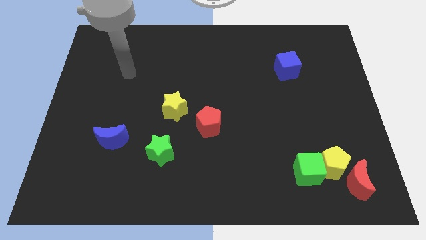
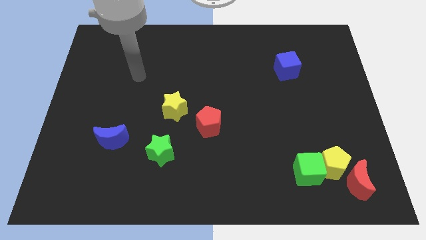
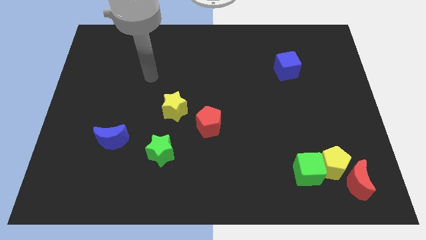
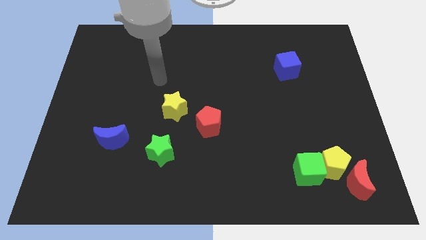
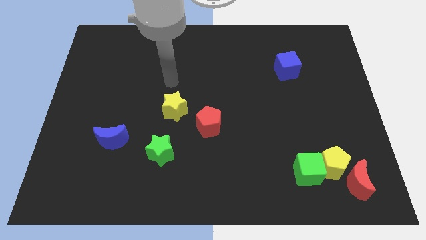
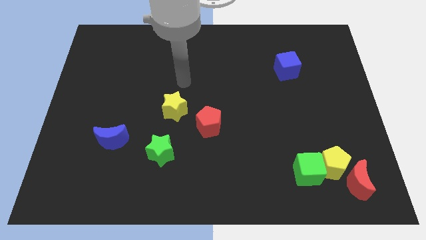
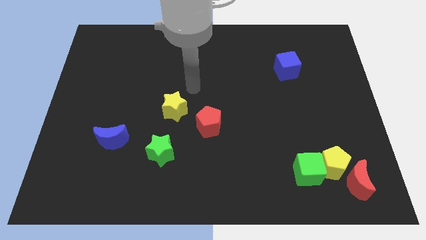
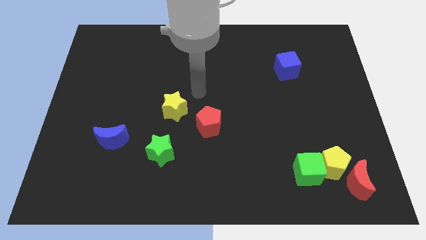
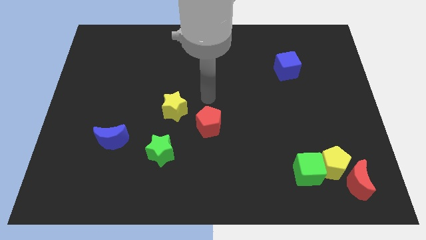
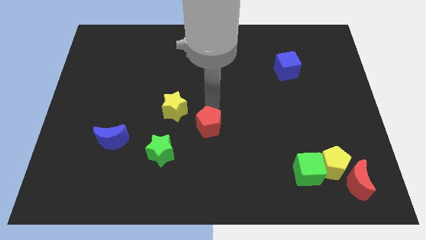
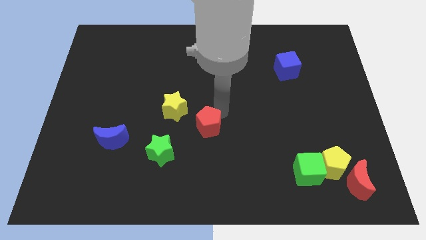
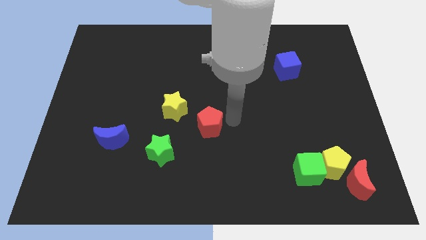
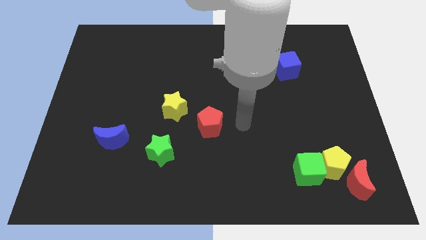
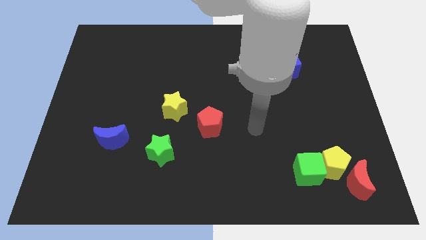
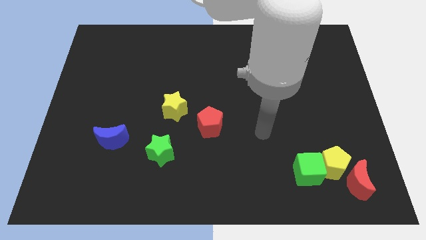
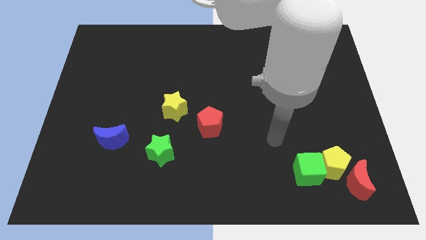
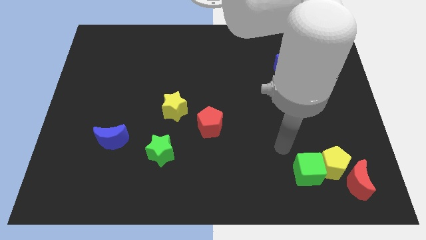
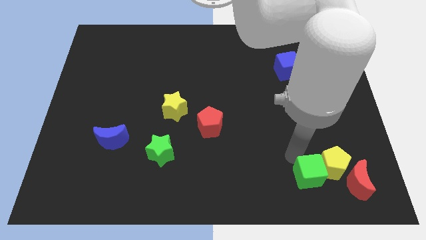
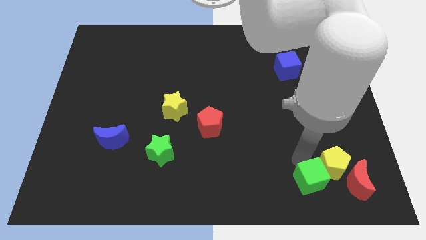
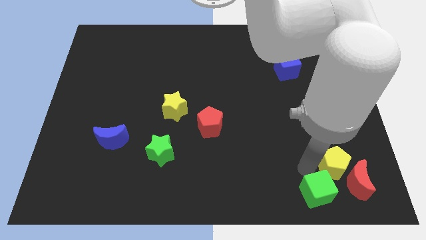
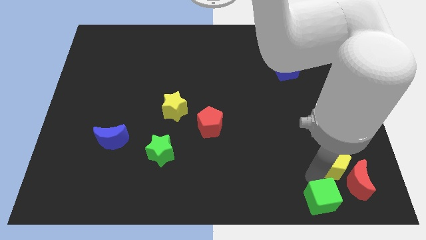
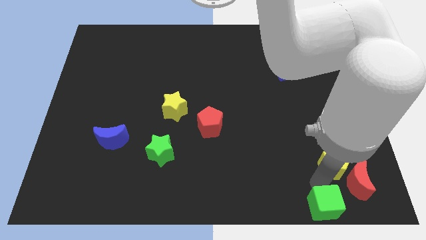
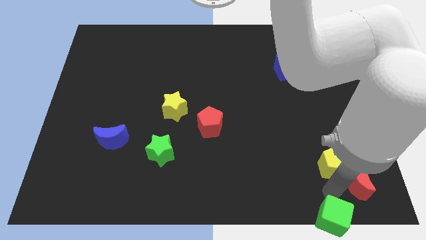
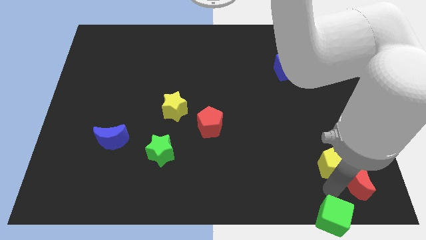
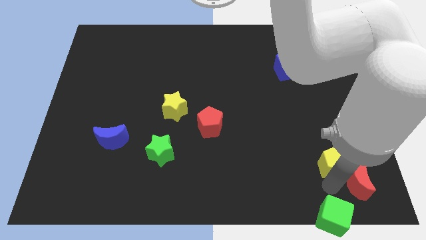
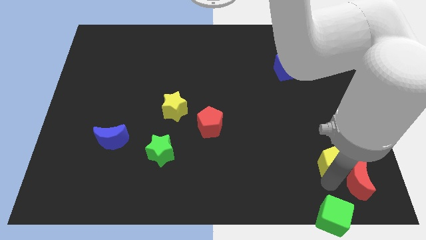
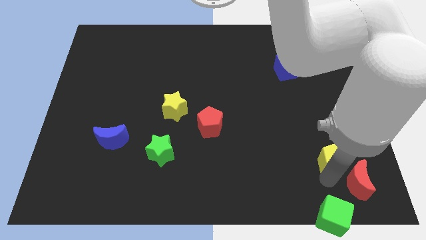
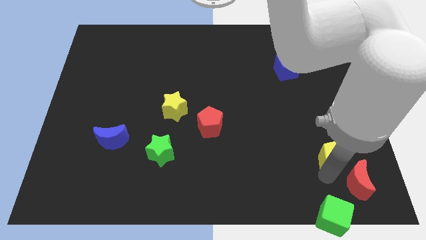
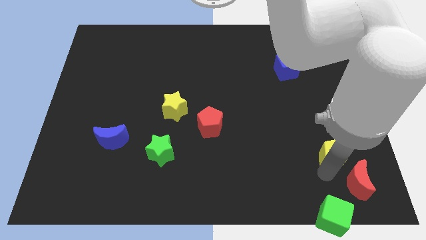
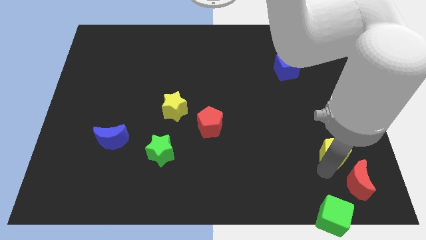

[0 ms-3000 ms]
move the yellow pentagon away from the green cube and red moon

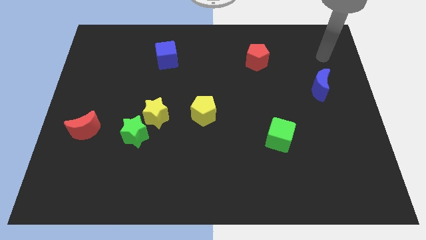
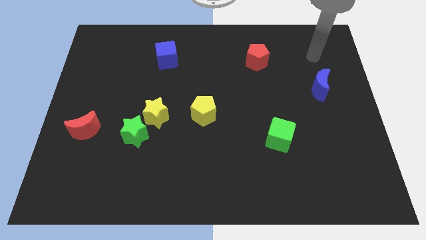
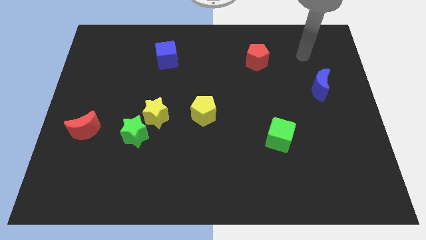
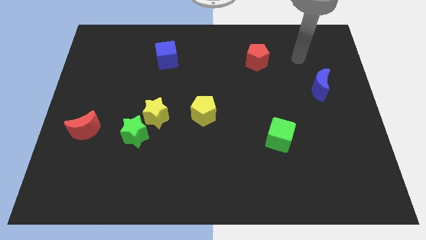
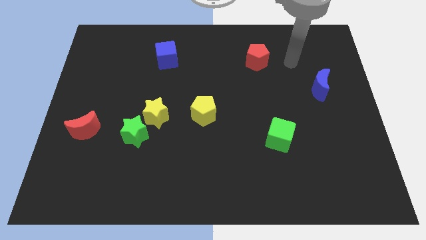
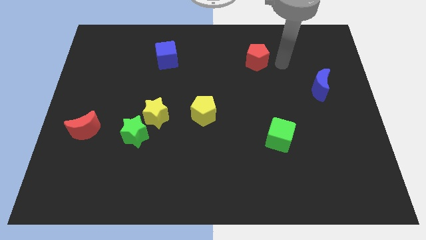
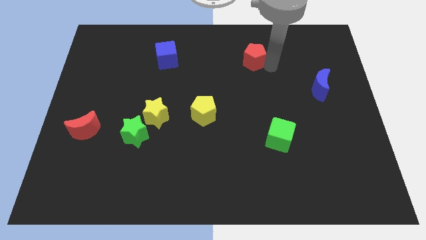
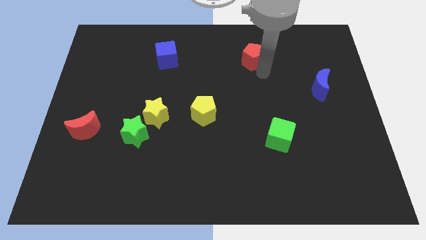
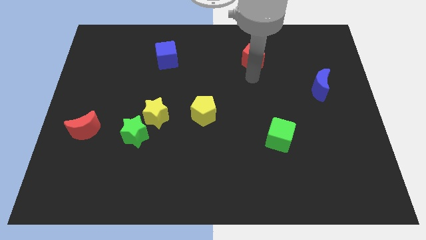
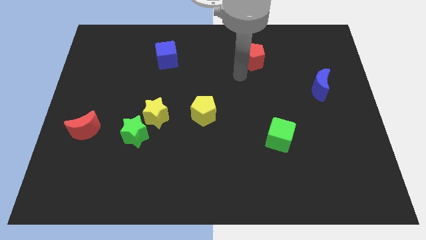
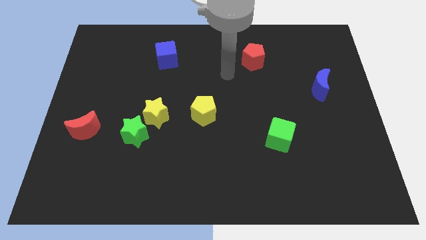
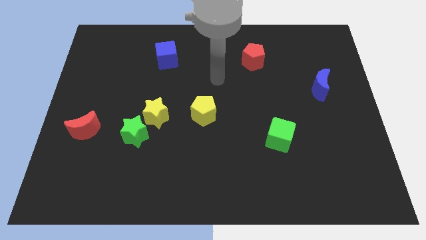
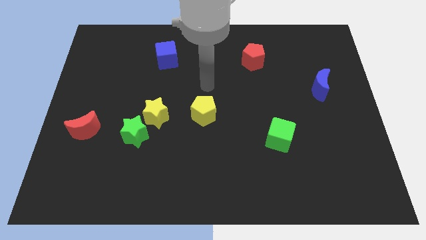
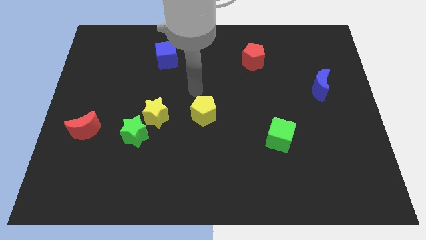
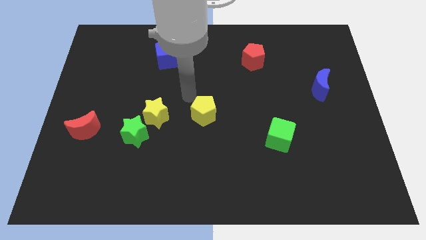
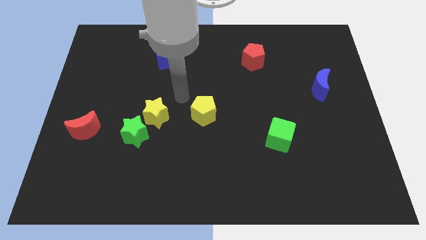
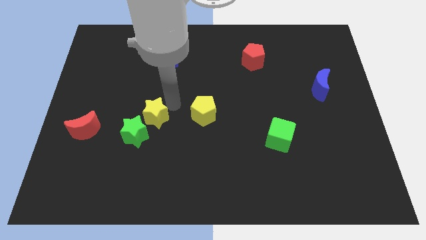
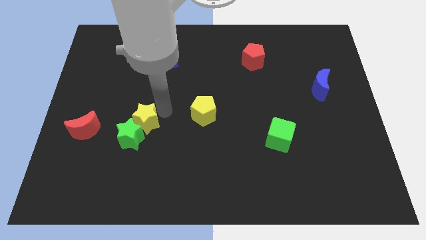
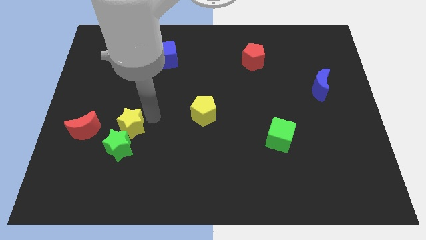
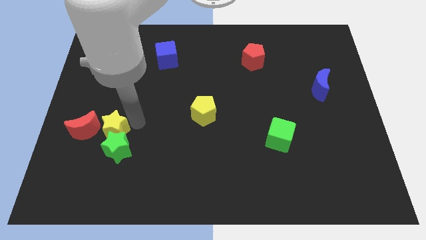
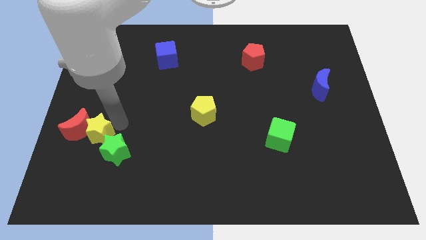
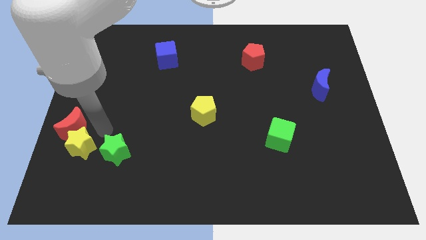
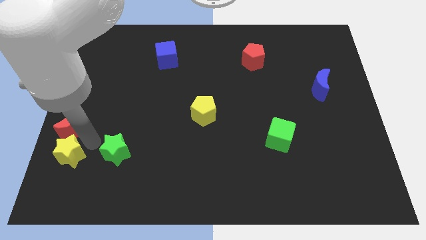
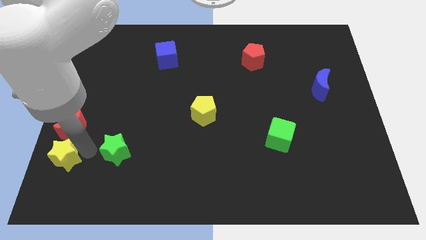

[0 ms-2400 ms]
separate the green star from the yellow star

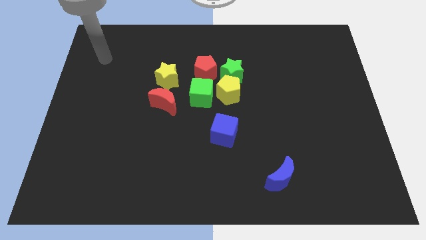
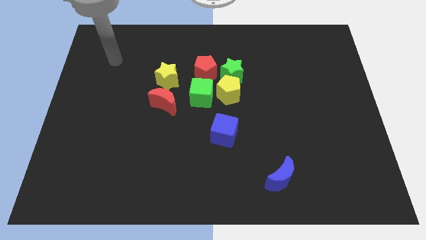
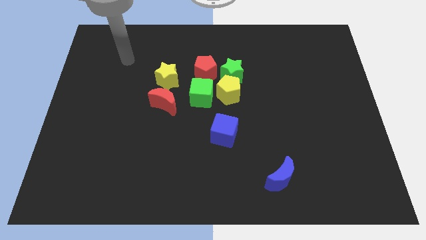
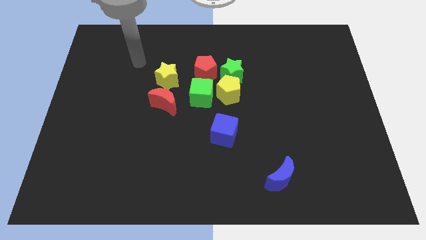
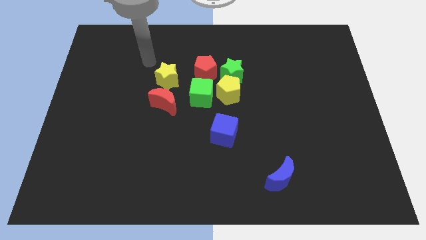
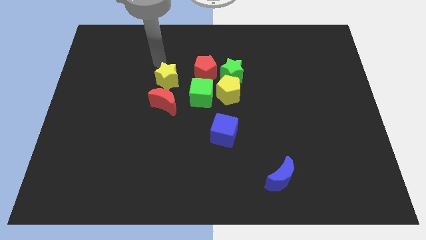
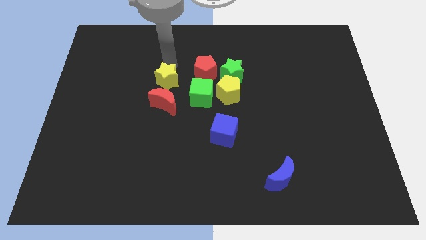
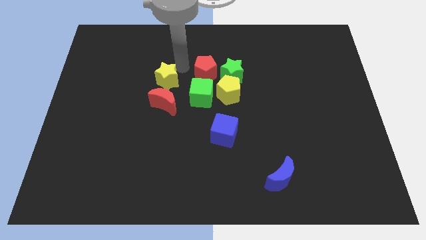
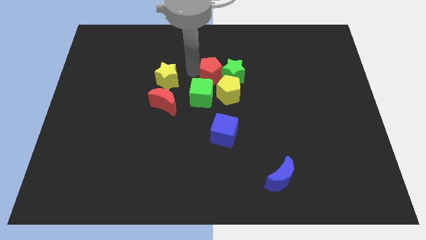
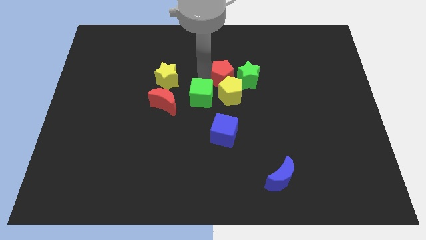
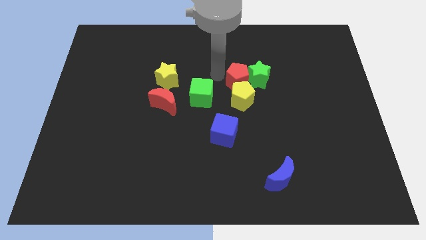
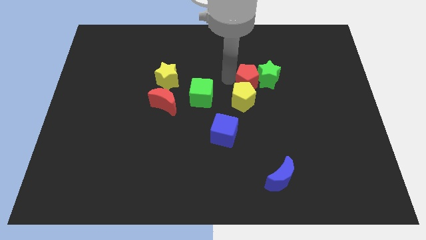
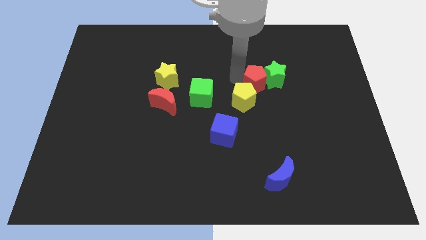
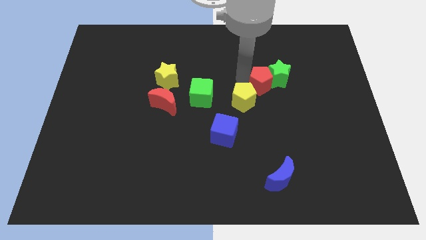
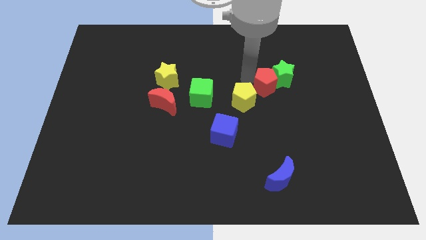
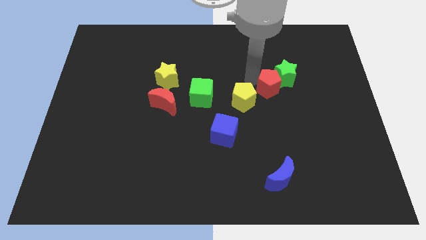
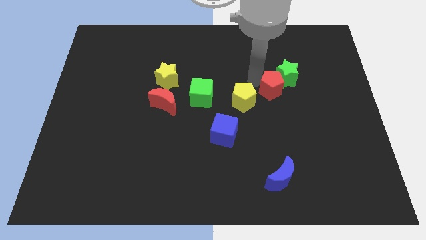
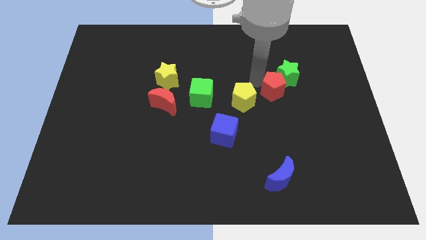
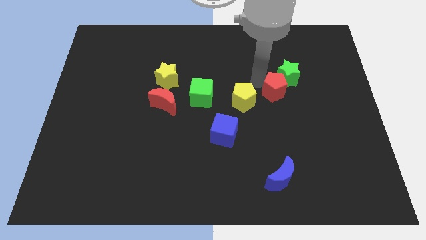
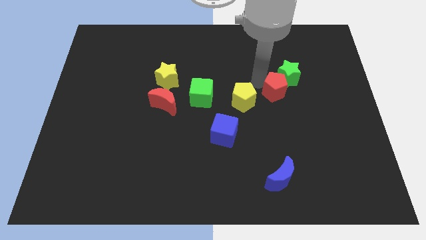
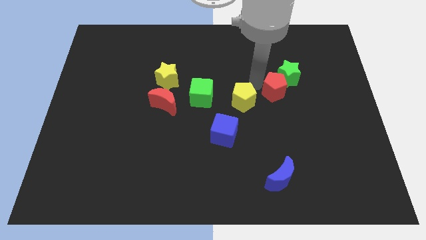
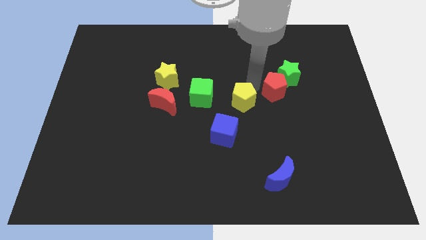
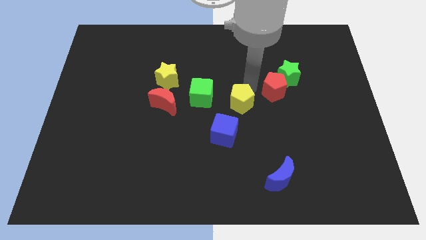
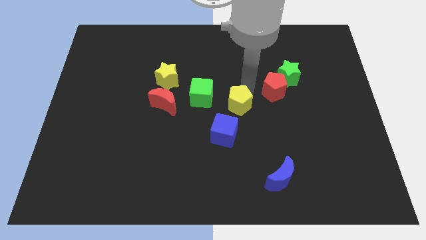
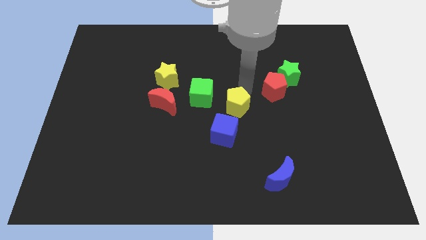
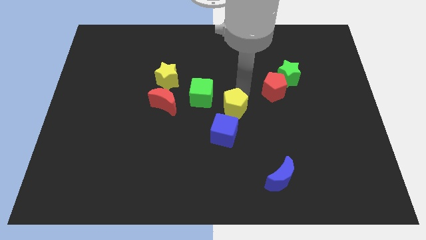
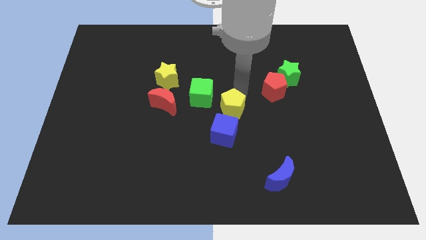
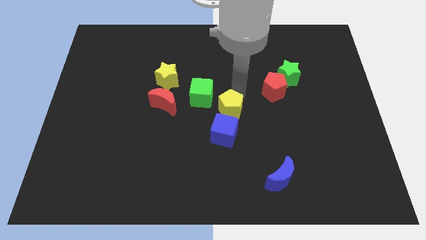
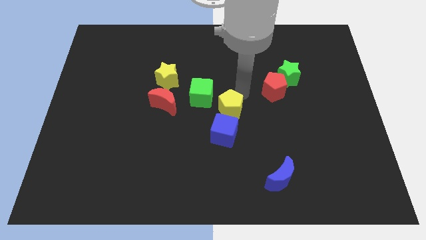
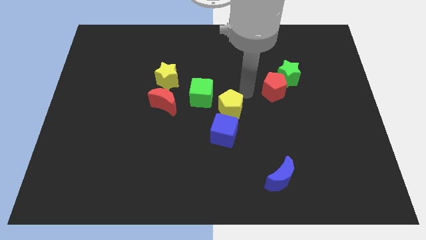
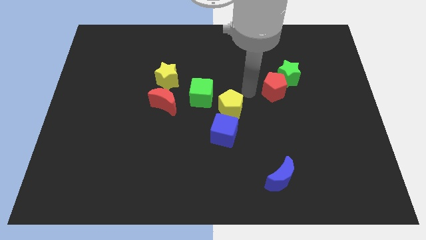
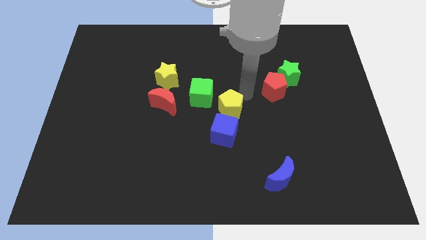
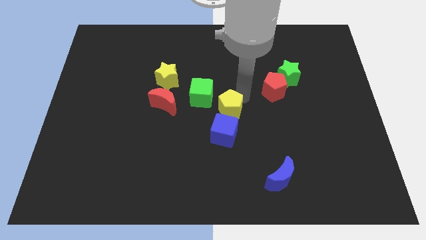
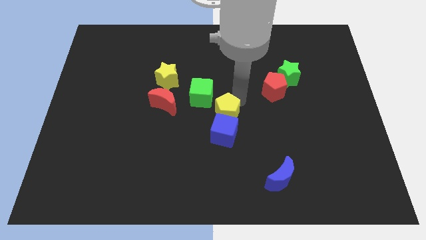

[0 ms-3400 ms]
separate the yellow pentagon from the group of blocks

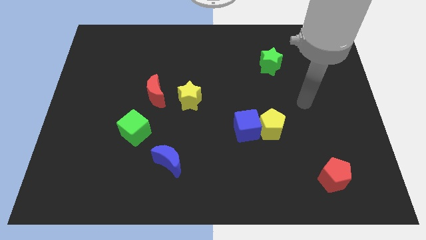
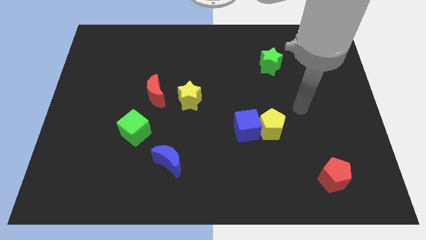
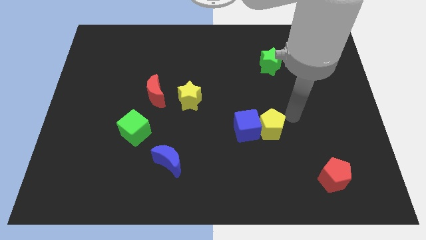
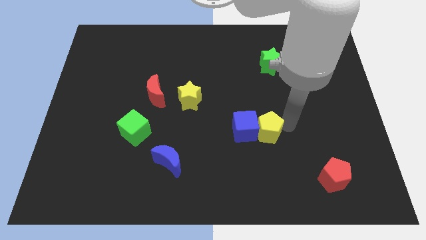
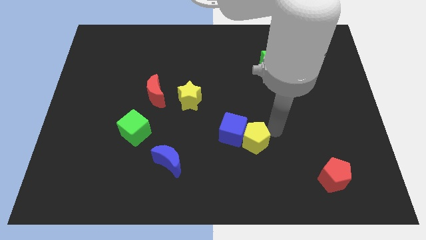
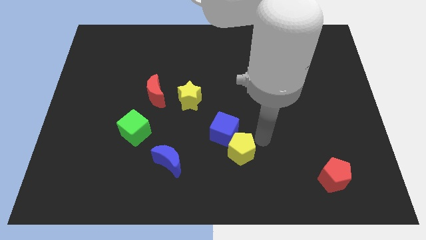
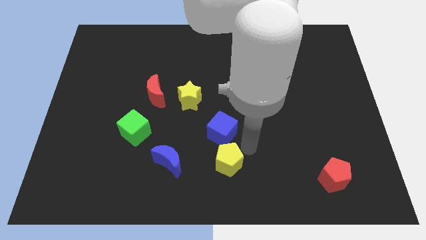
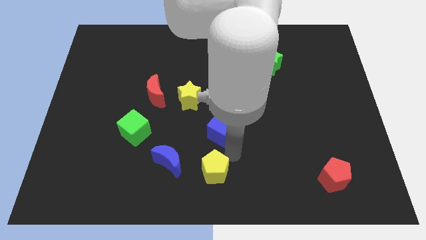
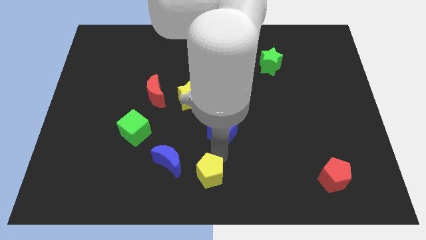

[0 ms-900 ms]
move the blue cube away from the yellow pentagon
